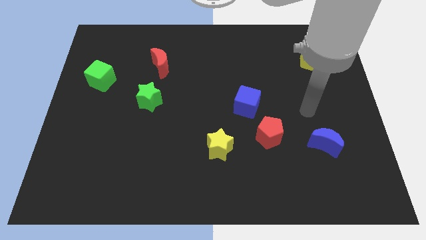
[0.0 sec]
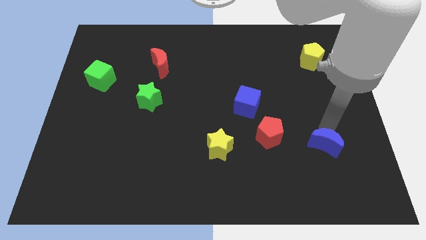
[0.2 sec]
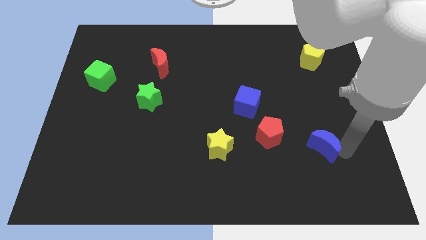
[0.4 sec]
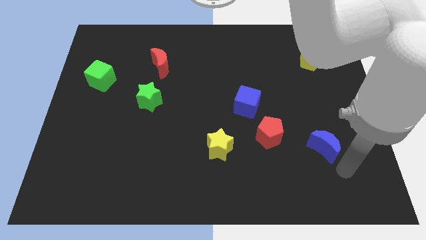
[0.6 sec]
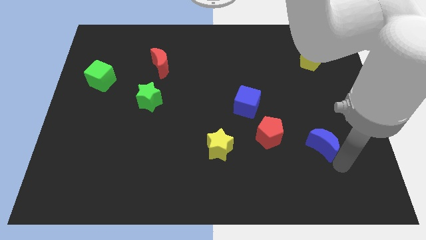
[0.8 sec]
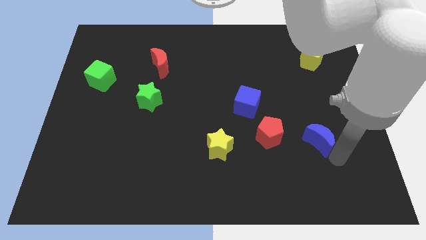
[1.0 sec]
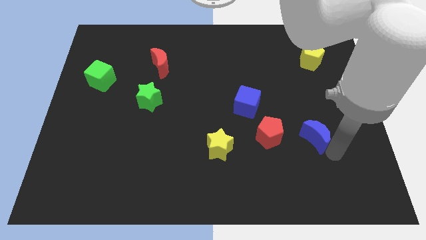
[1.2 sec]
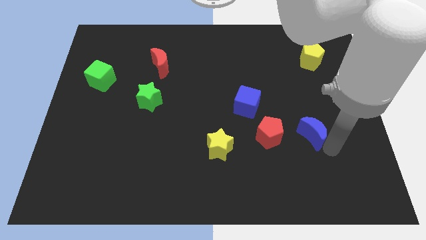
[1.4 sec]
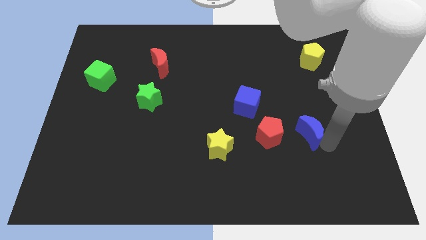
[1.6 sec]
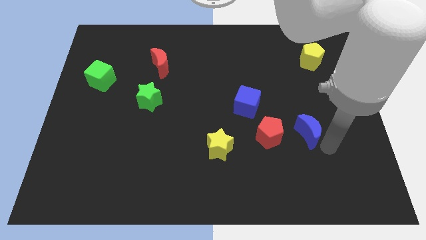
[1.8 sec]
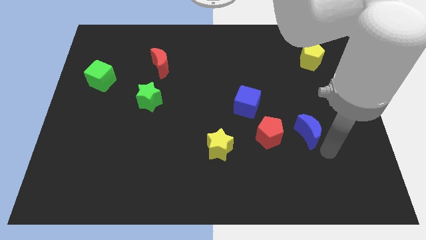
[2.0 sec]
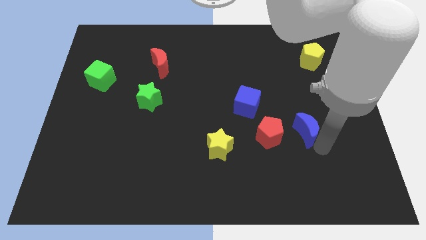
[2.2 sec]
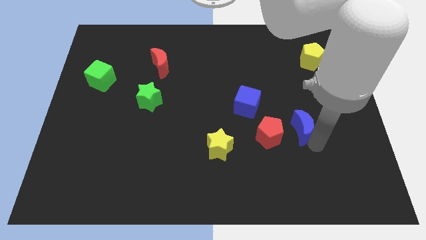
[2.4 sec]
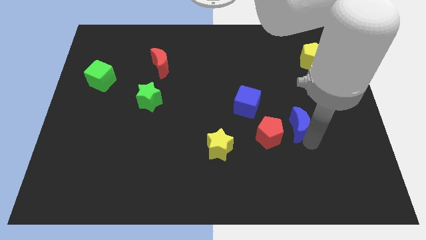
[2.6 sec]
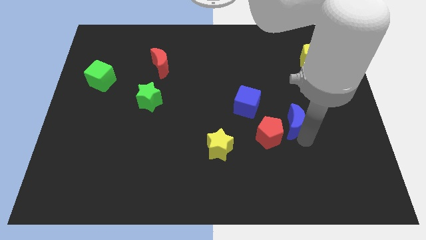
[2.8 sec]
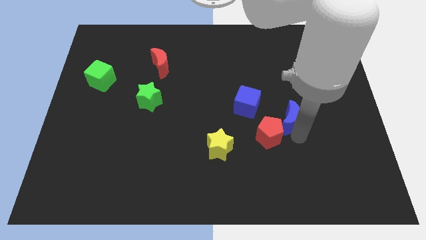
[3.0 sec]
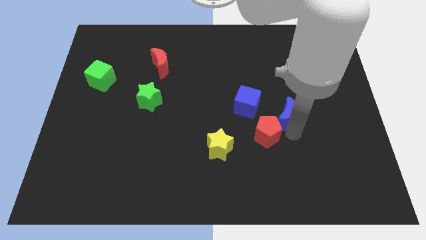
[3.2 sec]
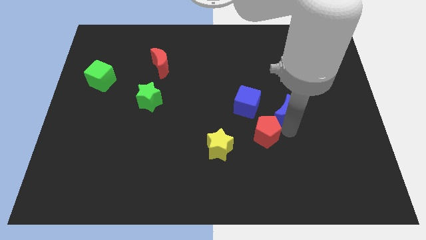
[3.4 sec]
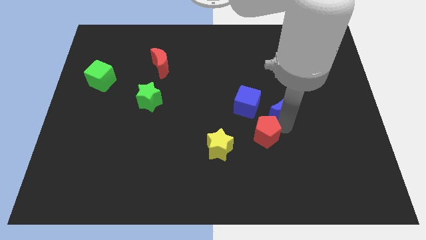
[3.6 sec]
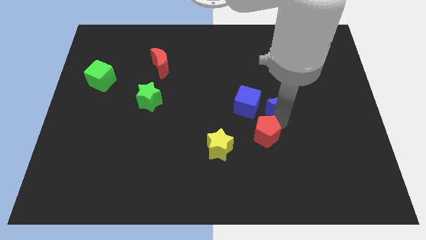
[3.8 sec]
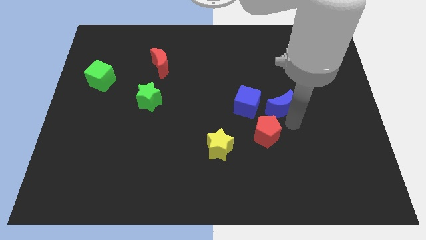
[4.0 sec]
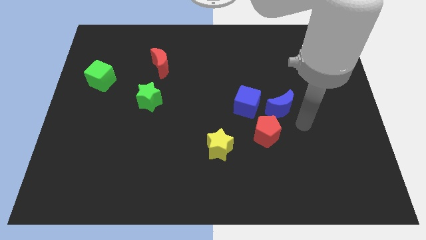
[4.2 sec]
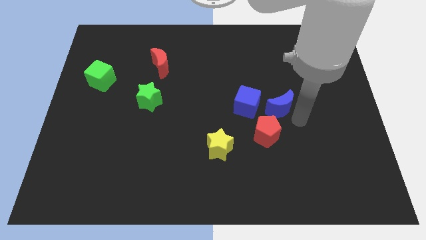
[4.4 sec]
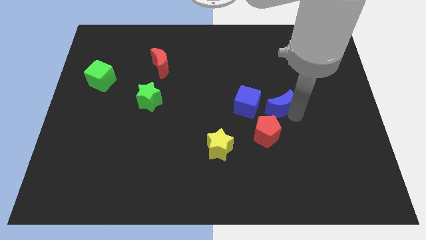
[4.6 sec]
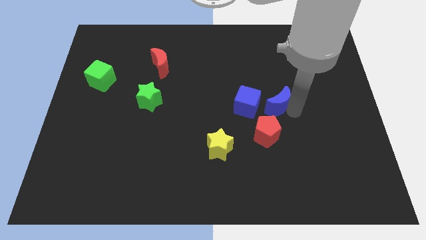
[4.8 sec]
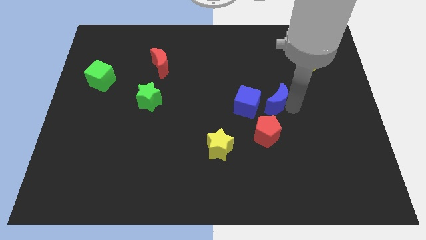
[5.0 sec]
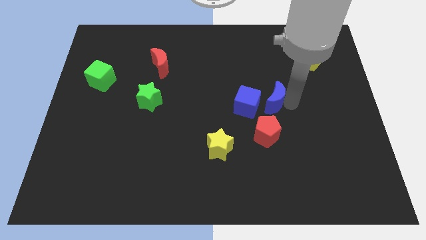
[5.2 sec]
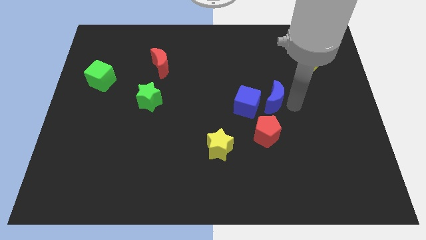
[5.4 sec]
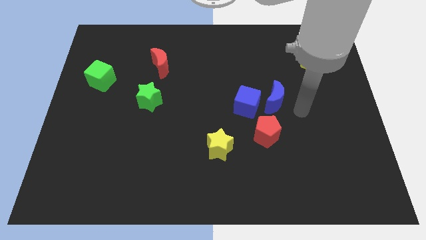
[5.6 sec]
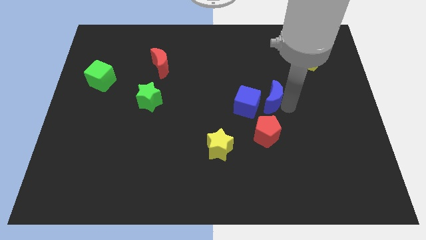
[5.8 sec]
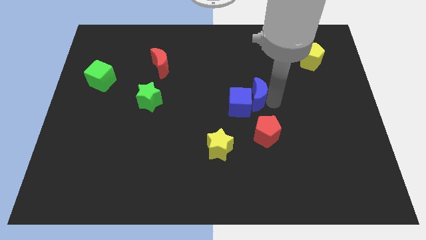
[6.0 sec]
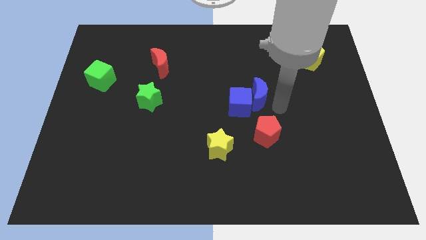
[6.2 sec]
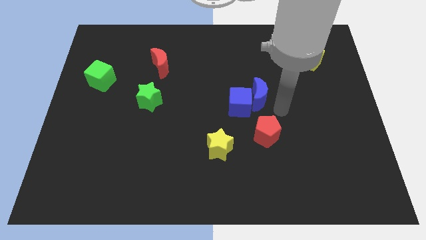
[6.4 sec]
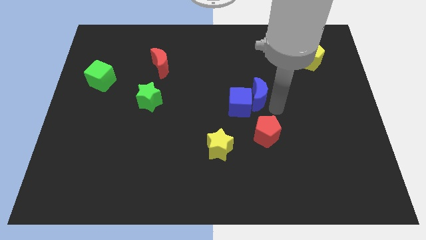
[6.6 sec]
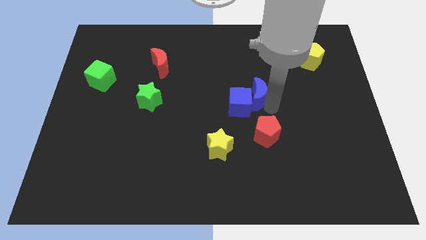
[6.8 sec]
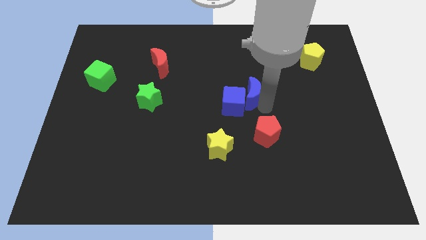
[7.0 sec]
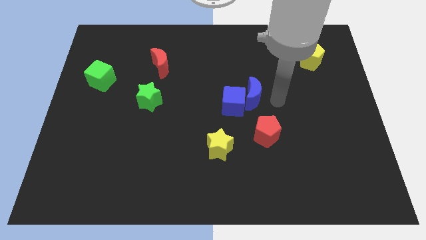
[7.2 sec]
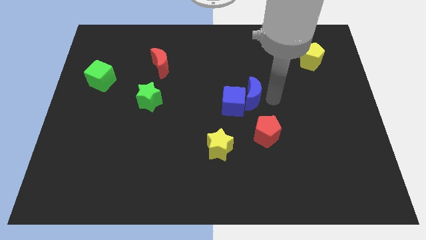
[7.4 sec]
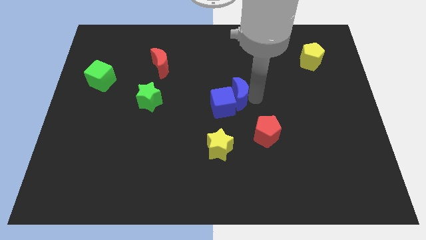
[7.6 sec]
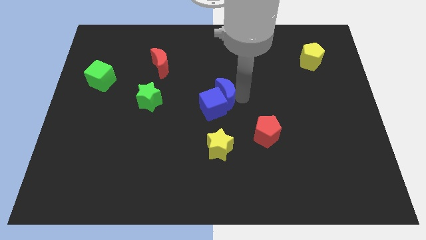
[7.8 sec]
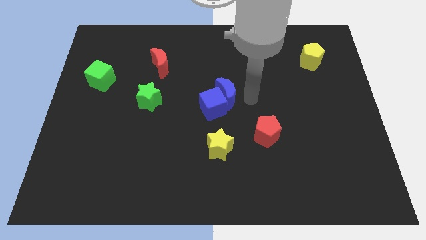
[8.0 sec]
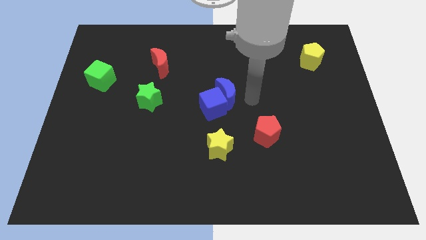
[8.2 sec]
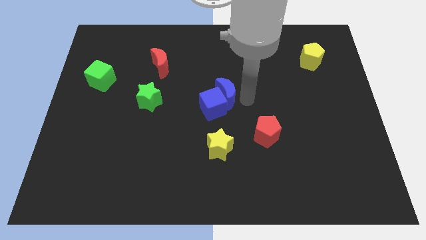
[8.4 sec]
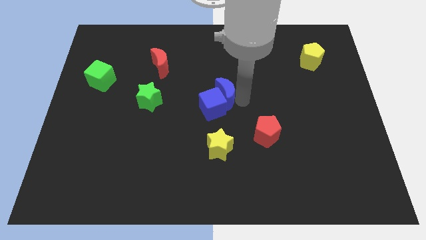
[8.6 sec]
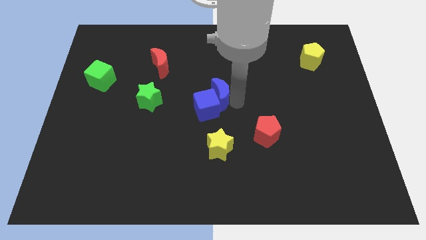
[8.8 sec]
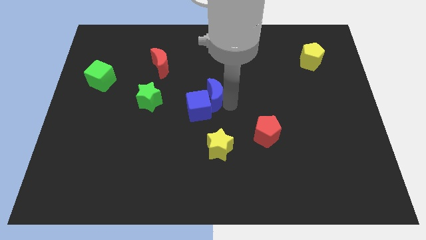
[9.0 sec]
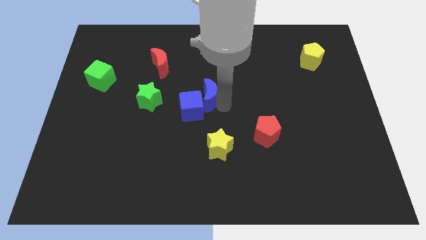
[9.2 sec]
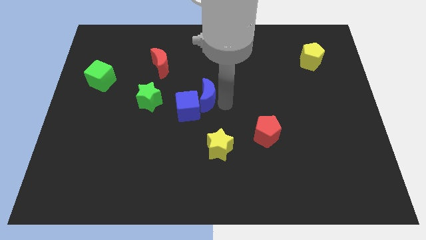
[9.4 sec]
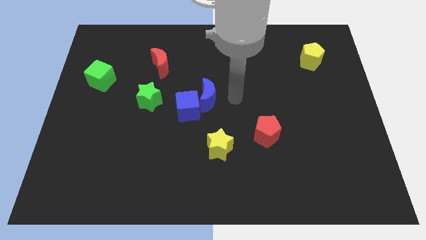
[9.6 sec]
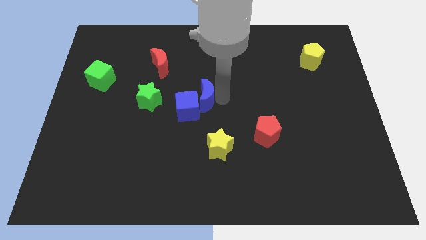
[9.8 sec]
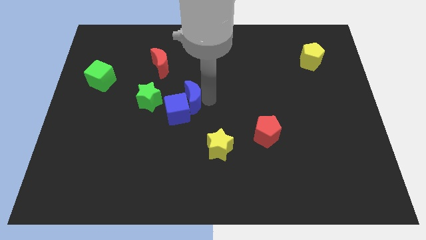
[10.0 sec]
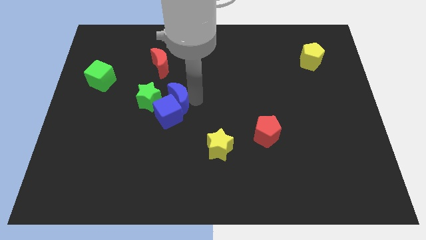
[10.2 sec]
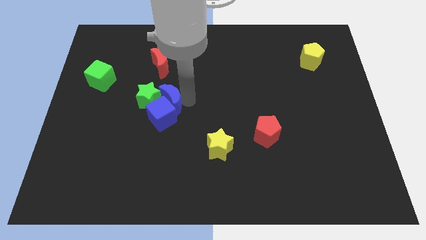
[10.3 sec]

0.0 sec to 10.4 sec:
put the blue moon to the green star

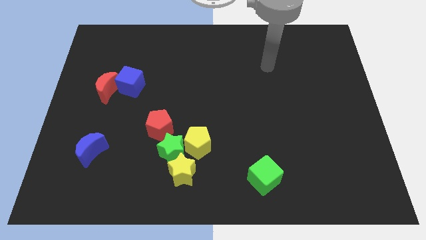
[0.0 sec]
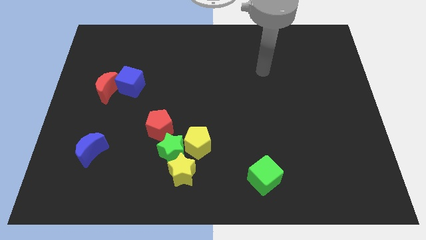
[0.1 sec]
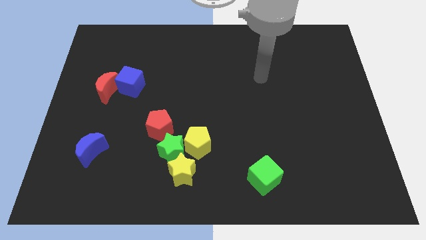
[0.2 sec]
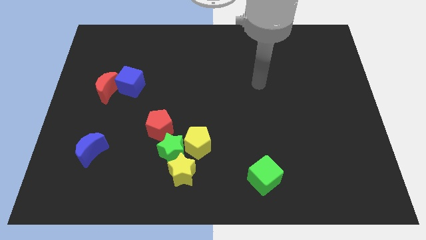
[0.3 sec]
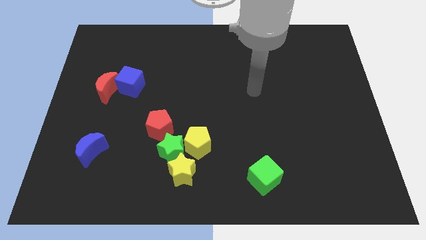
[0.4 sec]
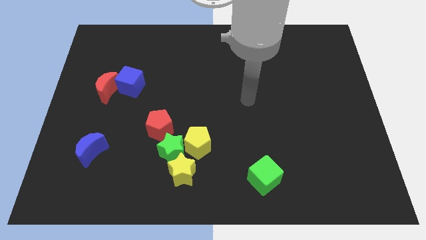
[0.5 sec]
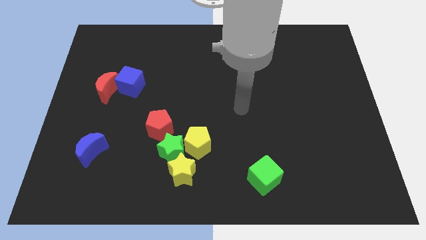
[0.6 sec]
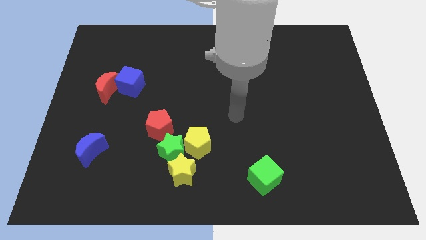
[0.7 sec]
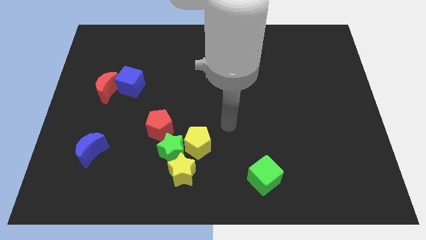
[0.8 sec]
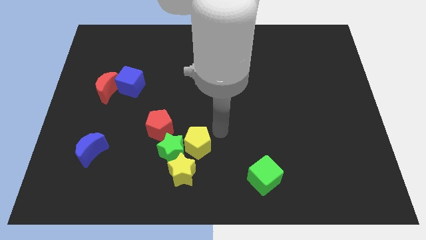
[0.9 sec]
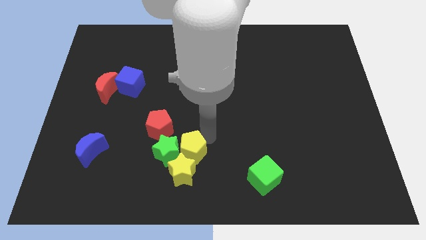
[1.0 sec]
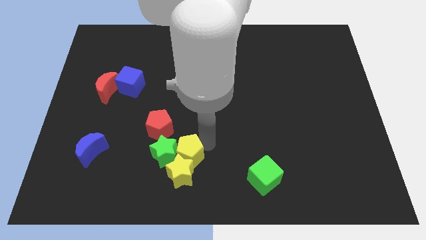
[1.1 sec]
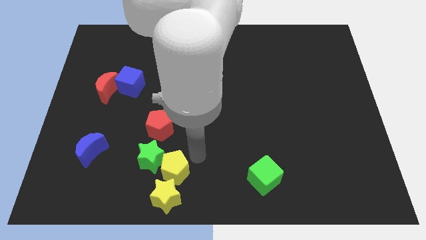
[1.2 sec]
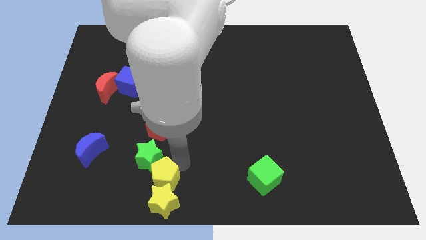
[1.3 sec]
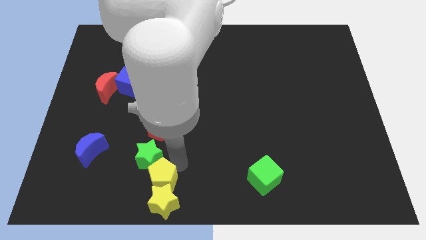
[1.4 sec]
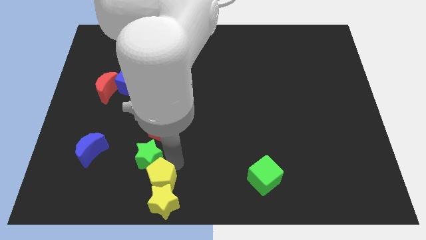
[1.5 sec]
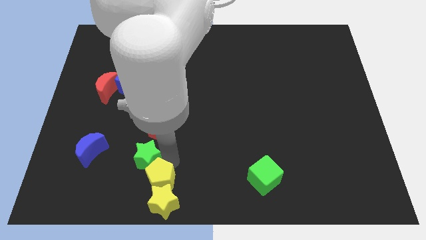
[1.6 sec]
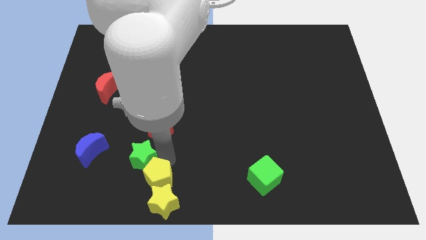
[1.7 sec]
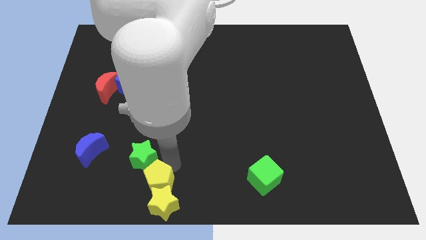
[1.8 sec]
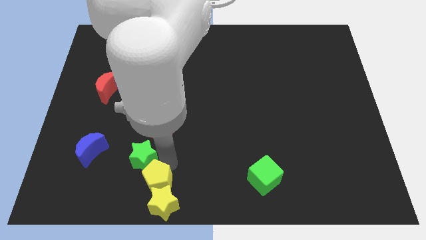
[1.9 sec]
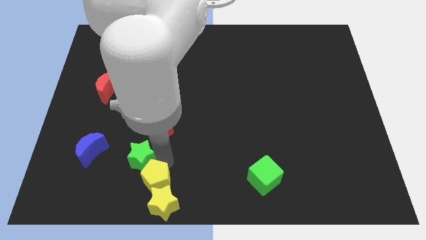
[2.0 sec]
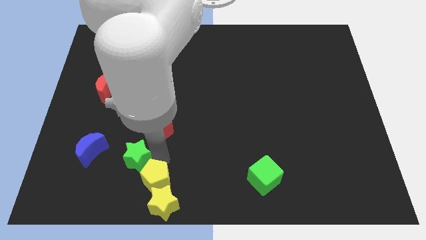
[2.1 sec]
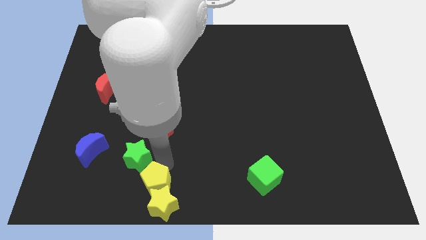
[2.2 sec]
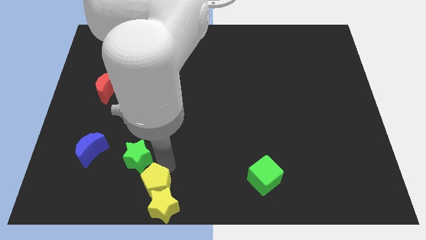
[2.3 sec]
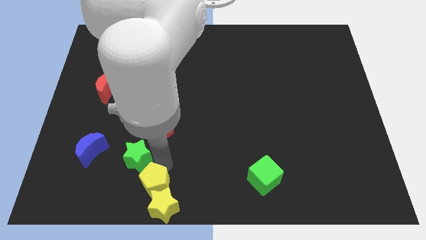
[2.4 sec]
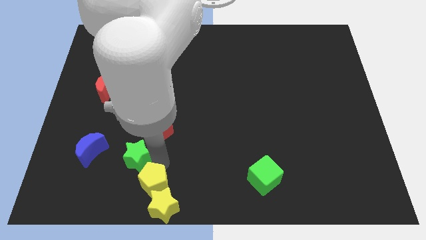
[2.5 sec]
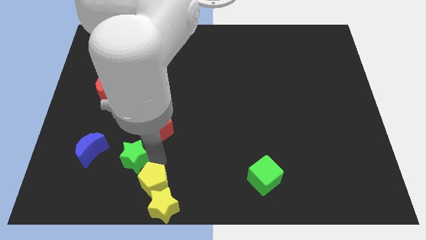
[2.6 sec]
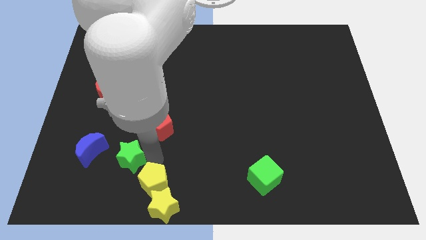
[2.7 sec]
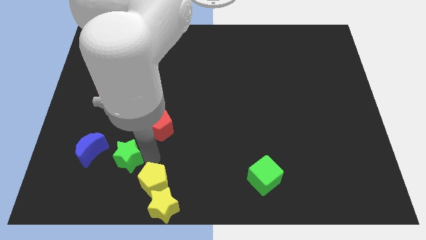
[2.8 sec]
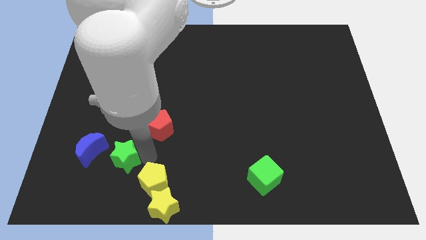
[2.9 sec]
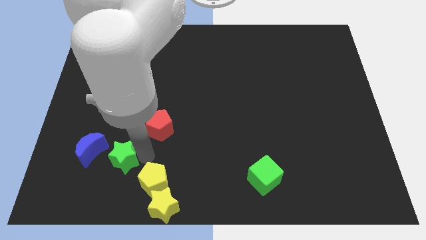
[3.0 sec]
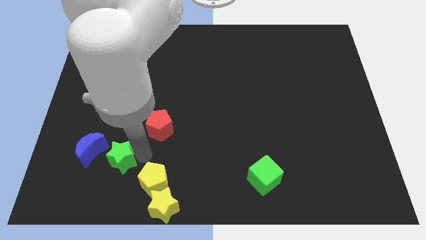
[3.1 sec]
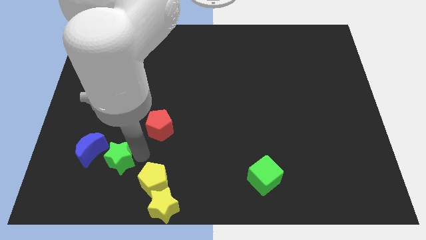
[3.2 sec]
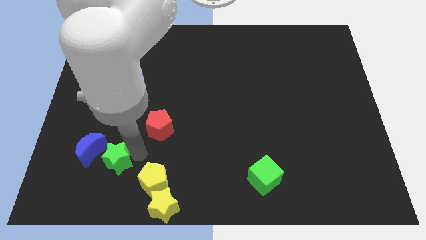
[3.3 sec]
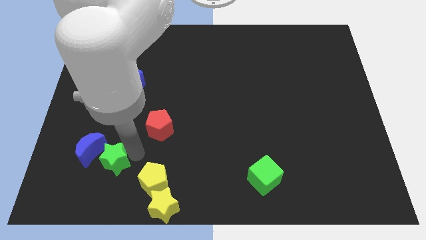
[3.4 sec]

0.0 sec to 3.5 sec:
move the green star next to the blue moon
